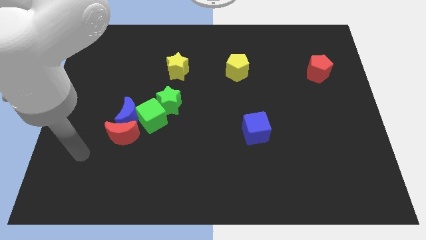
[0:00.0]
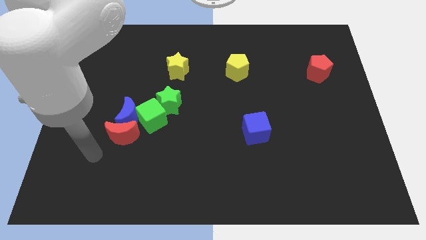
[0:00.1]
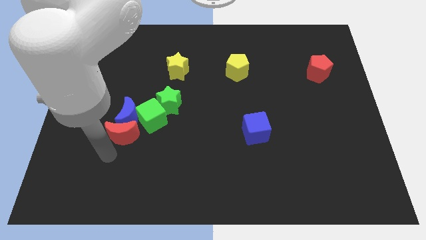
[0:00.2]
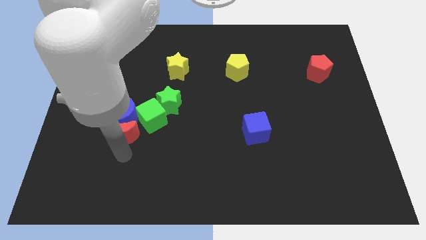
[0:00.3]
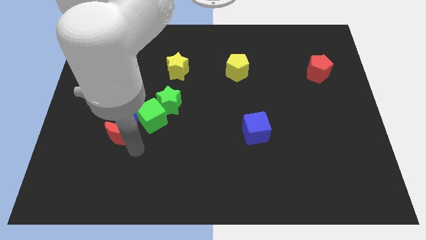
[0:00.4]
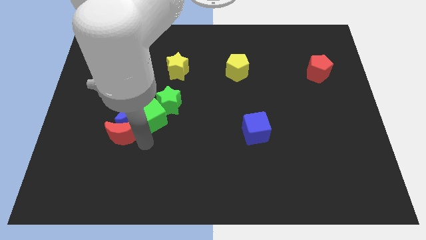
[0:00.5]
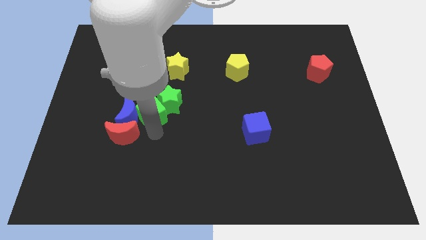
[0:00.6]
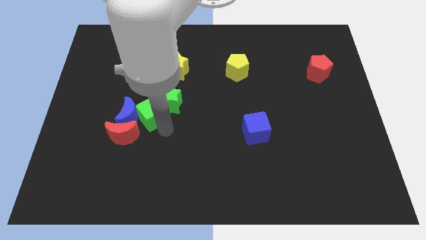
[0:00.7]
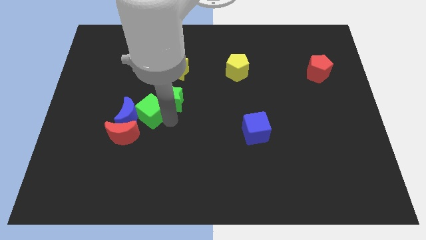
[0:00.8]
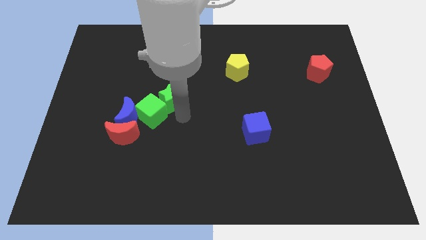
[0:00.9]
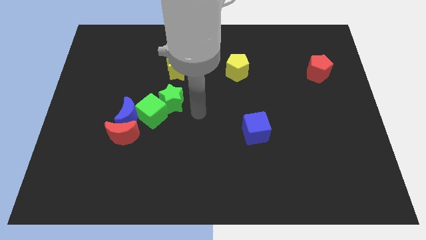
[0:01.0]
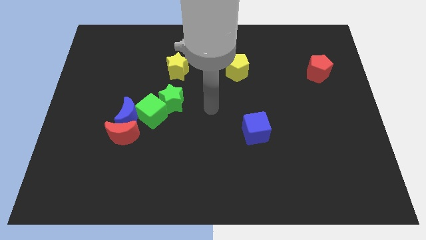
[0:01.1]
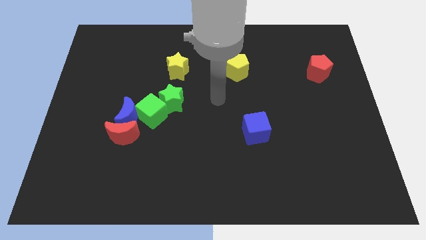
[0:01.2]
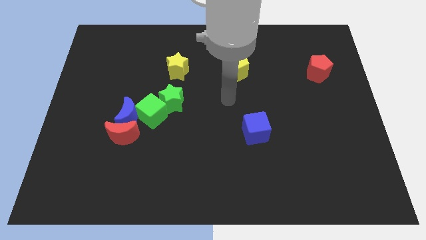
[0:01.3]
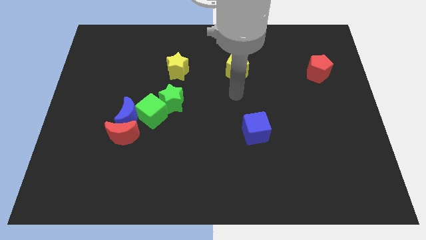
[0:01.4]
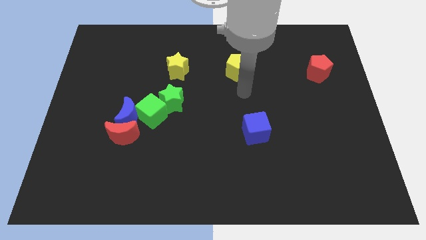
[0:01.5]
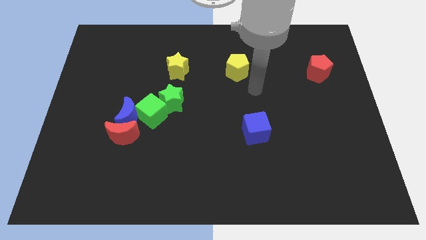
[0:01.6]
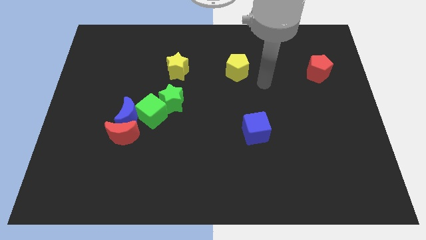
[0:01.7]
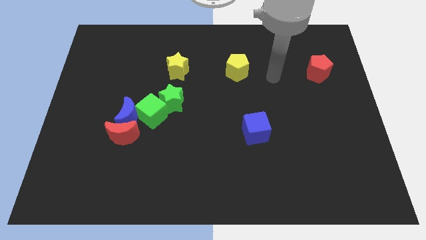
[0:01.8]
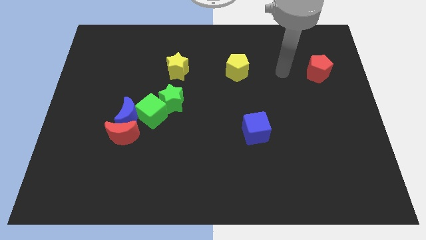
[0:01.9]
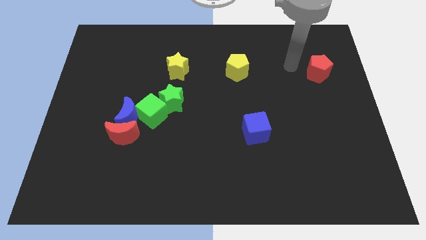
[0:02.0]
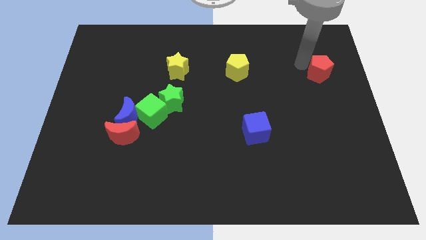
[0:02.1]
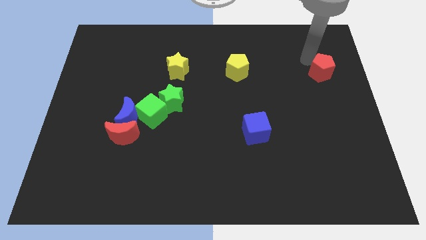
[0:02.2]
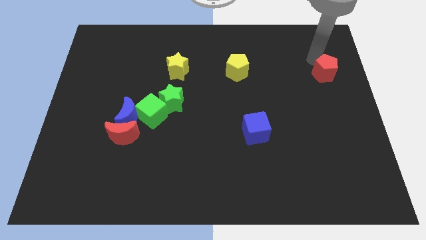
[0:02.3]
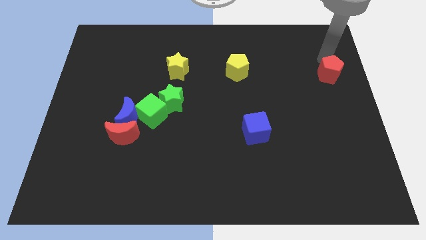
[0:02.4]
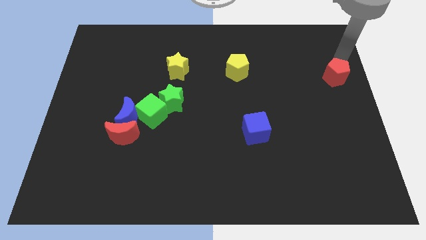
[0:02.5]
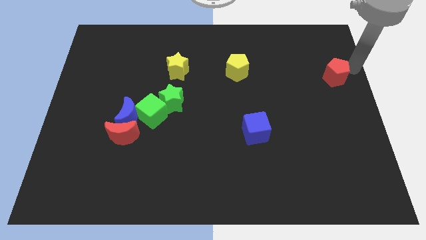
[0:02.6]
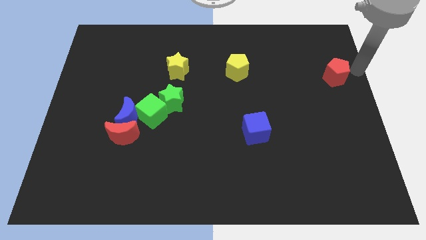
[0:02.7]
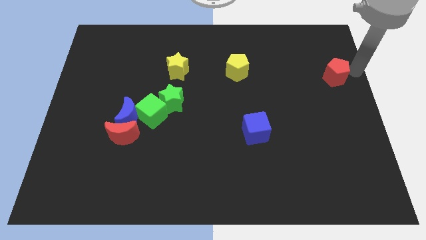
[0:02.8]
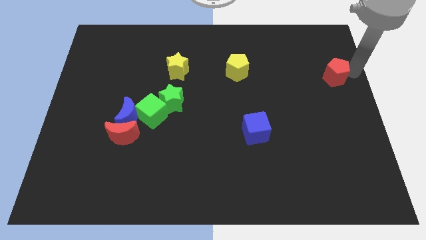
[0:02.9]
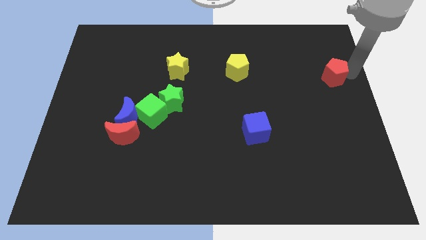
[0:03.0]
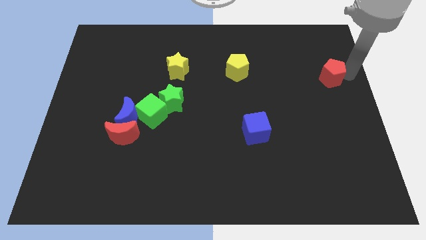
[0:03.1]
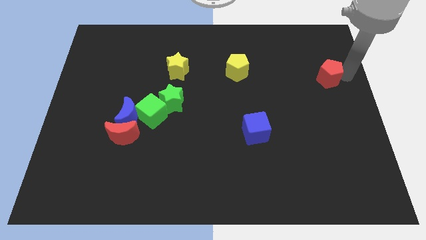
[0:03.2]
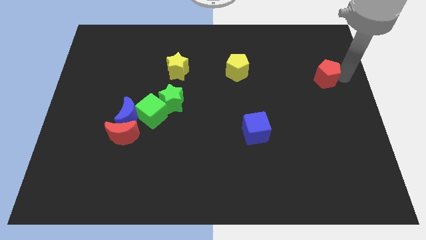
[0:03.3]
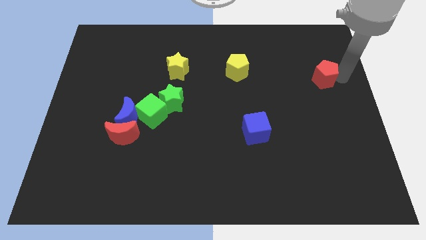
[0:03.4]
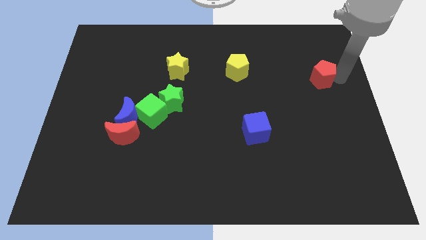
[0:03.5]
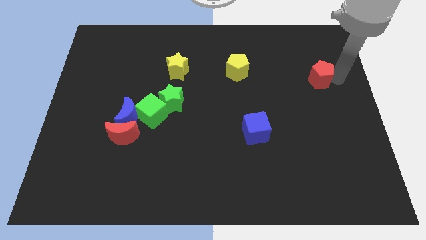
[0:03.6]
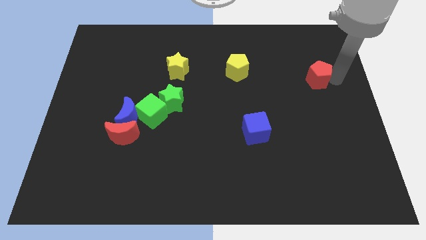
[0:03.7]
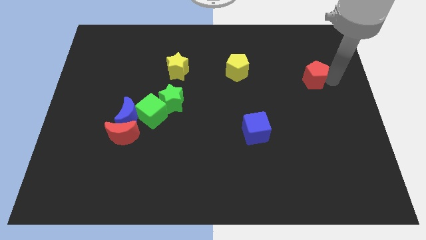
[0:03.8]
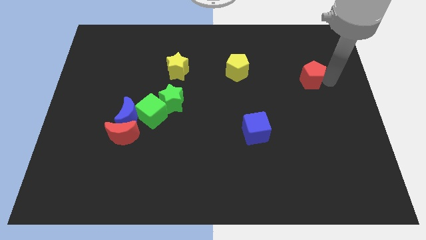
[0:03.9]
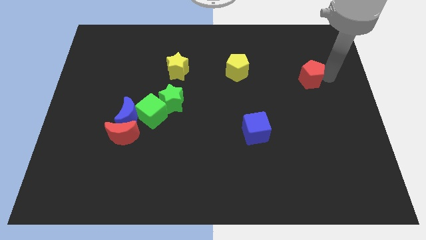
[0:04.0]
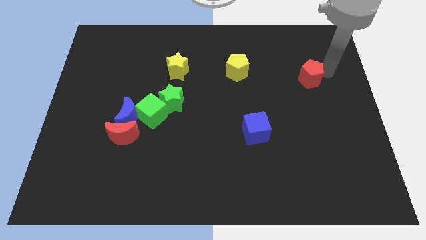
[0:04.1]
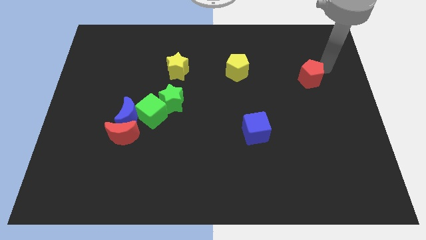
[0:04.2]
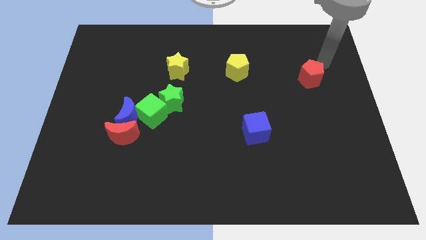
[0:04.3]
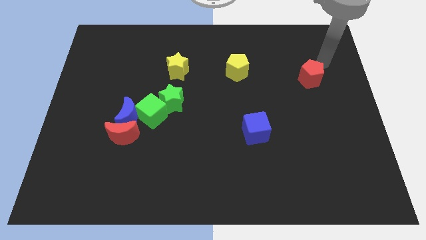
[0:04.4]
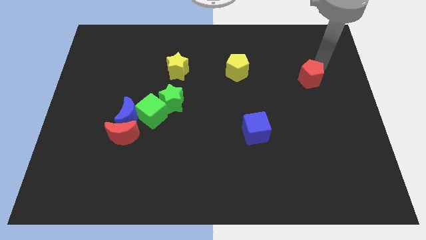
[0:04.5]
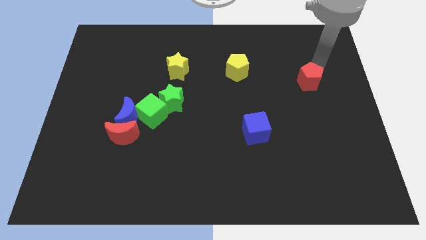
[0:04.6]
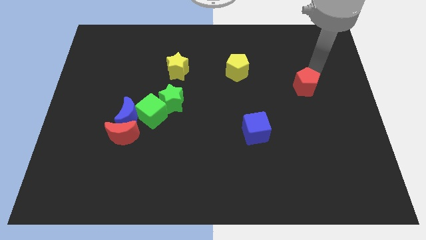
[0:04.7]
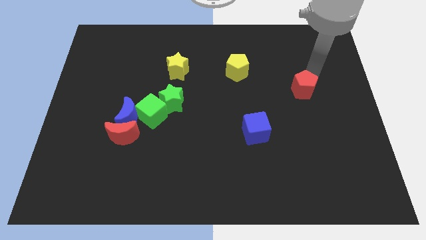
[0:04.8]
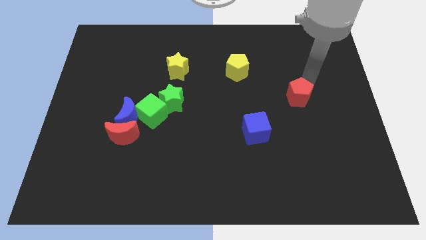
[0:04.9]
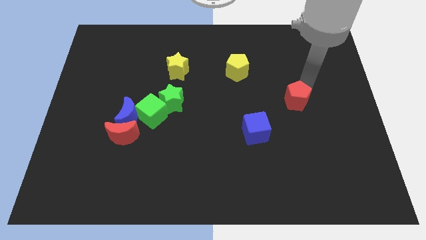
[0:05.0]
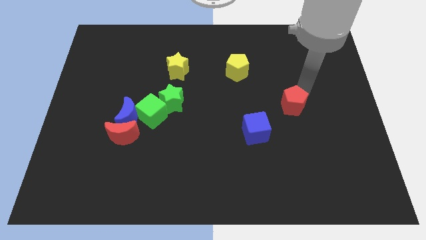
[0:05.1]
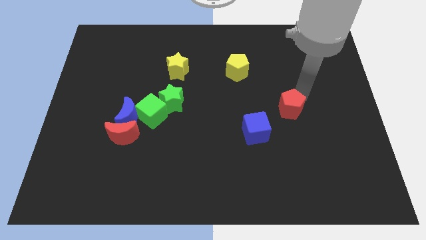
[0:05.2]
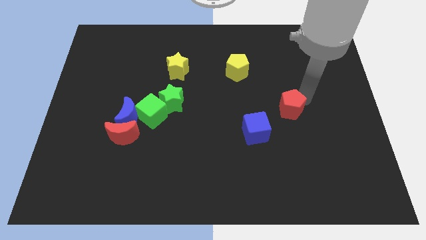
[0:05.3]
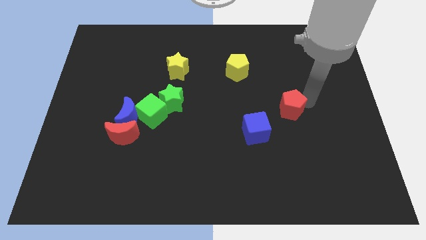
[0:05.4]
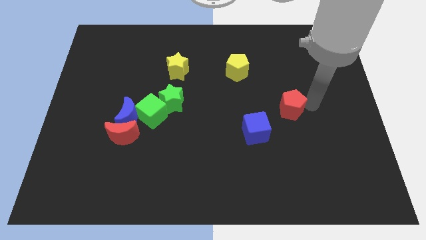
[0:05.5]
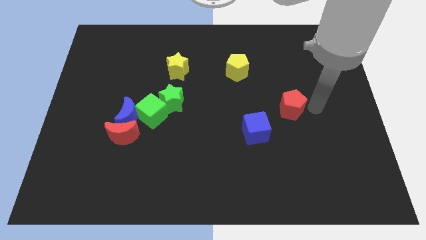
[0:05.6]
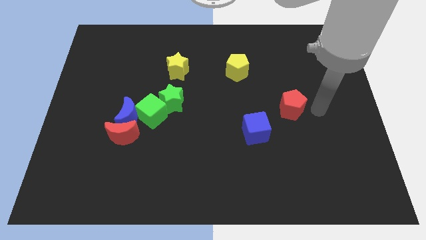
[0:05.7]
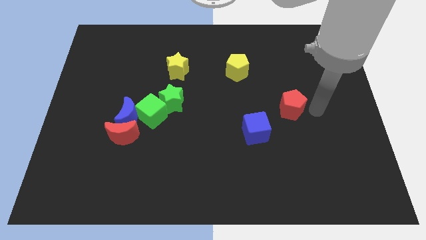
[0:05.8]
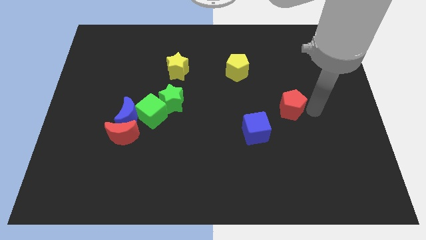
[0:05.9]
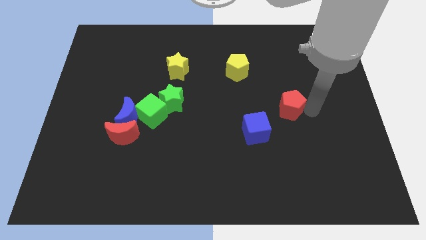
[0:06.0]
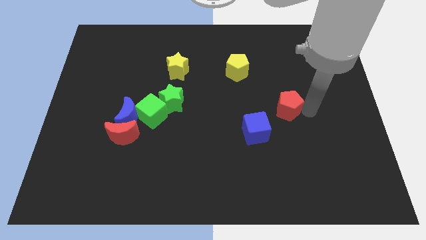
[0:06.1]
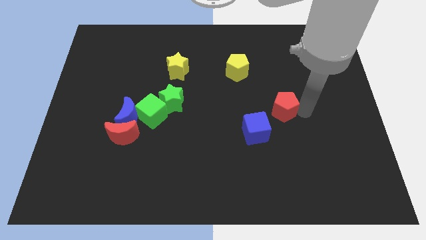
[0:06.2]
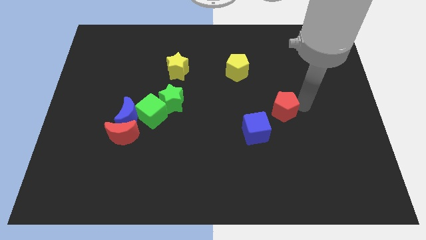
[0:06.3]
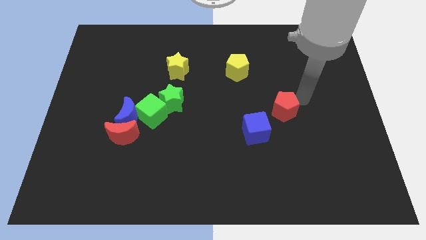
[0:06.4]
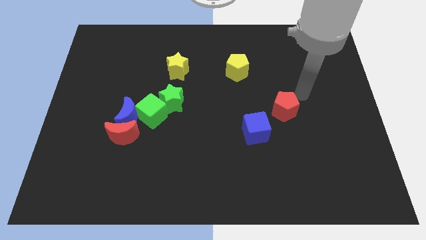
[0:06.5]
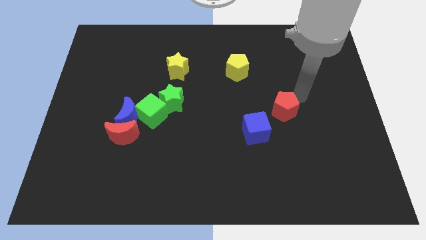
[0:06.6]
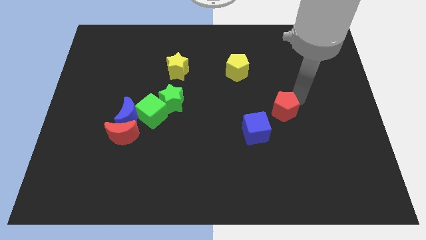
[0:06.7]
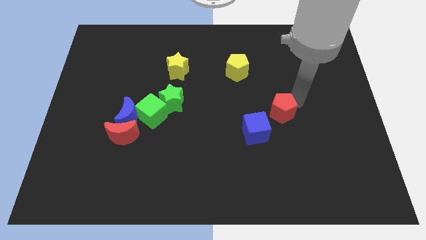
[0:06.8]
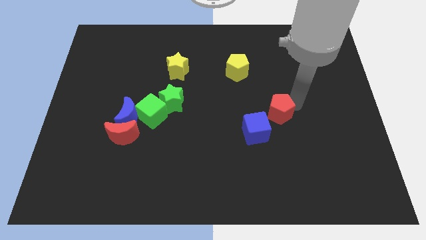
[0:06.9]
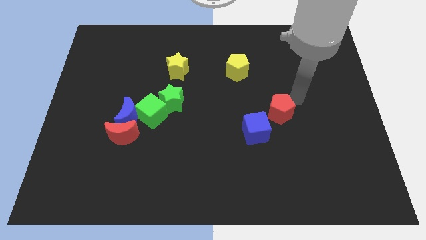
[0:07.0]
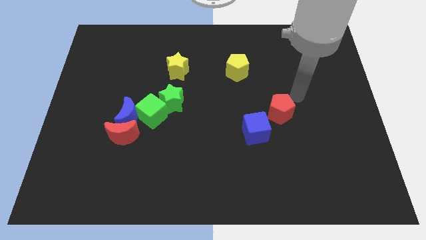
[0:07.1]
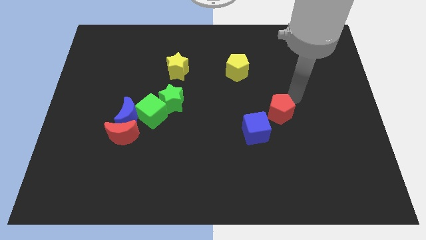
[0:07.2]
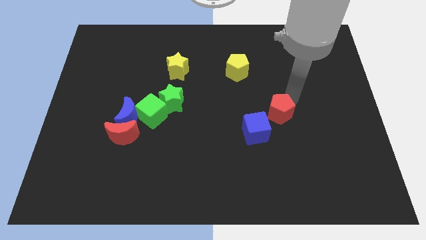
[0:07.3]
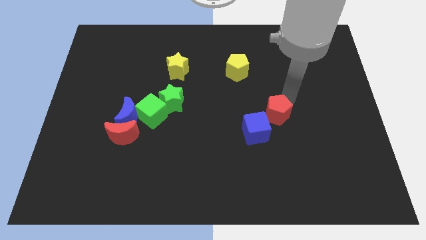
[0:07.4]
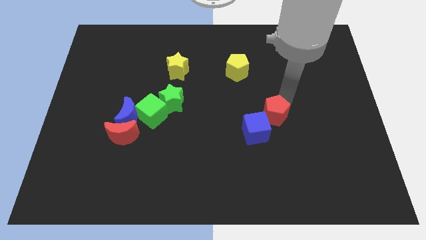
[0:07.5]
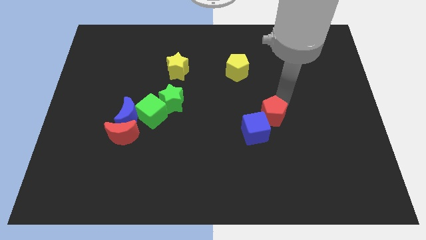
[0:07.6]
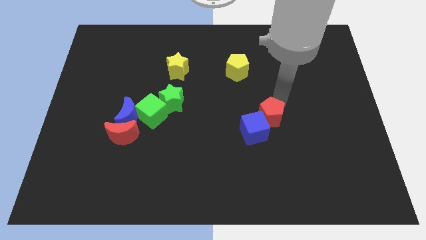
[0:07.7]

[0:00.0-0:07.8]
slide the red pentagon close to the blue cube
